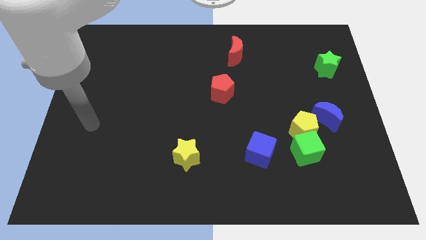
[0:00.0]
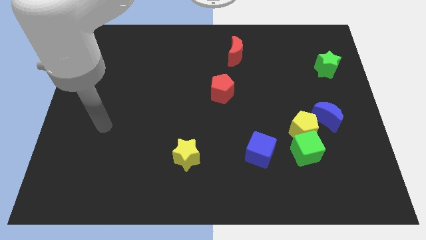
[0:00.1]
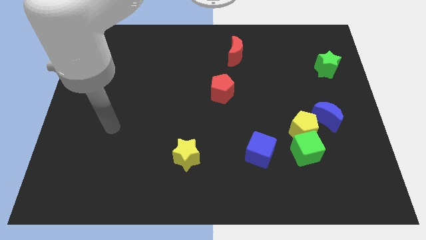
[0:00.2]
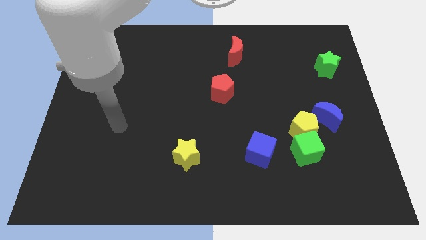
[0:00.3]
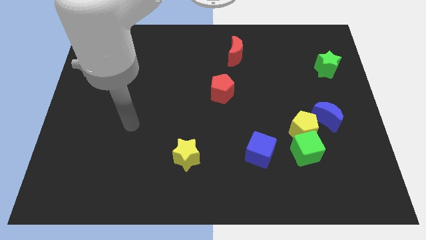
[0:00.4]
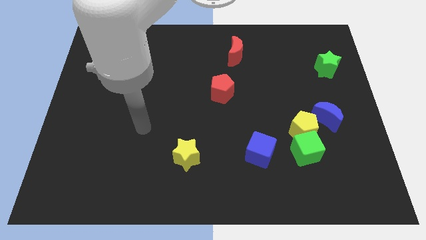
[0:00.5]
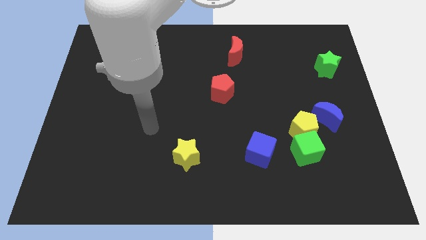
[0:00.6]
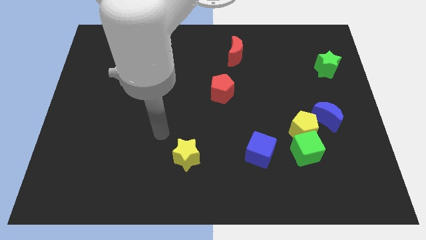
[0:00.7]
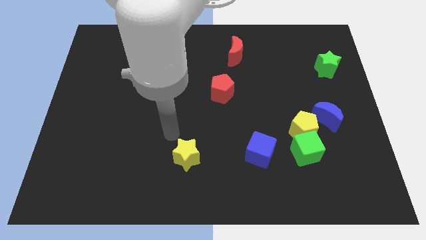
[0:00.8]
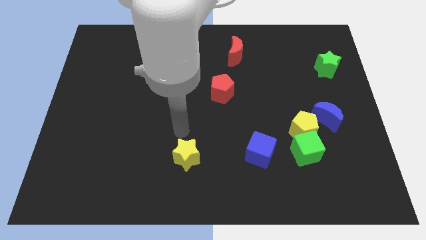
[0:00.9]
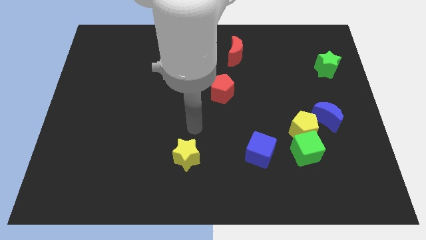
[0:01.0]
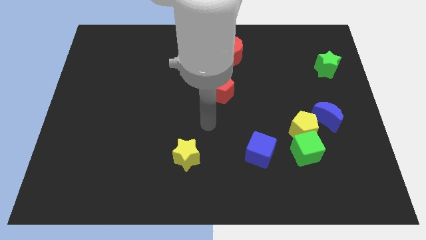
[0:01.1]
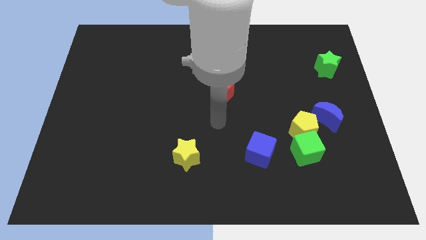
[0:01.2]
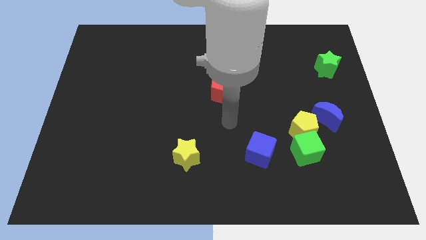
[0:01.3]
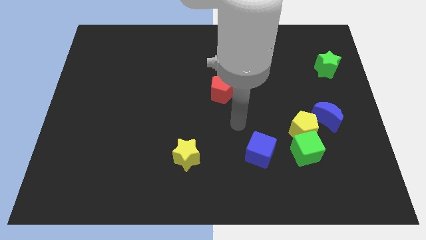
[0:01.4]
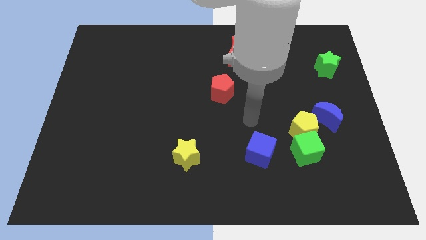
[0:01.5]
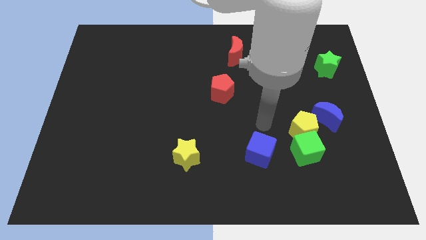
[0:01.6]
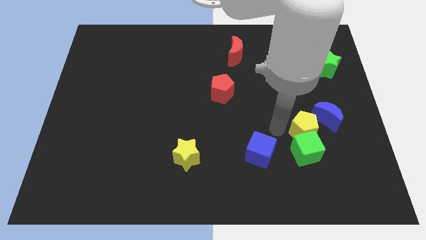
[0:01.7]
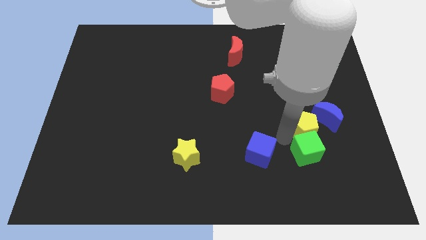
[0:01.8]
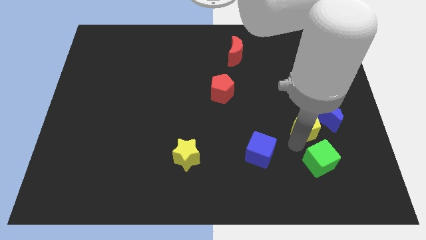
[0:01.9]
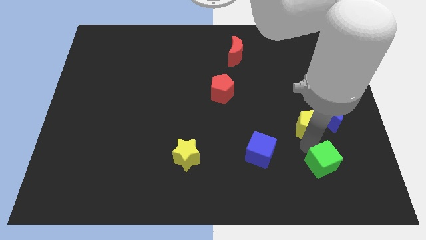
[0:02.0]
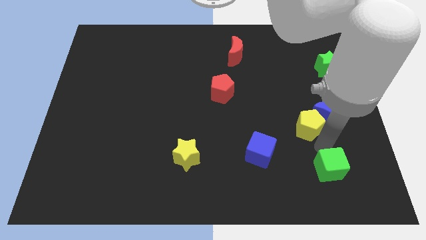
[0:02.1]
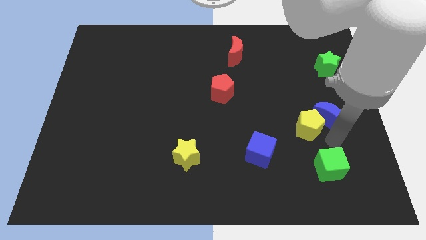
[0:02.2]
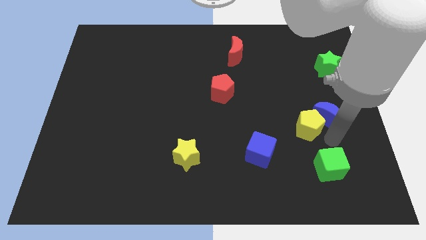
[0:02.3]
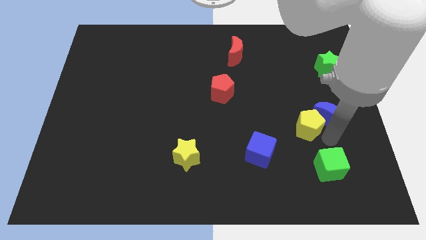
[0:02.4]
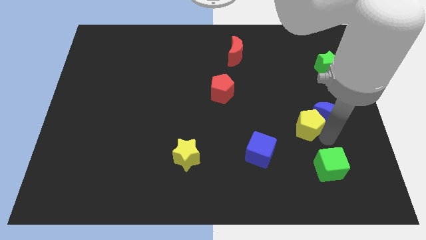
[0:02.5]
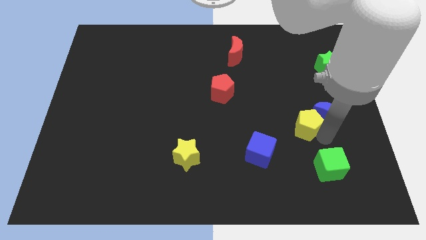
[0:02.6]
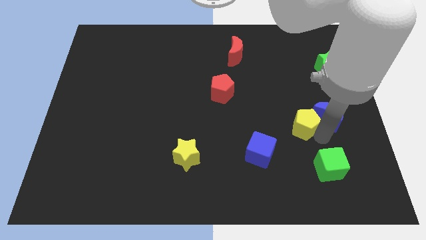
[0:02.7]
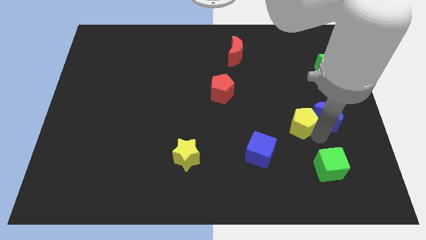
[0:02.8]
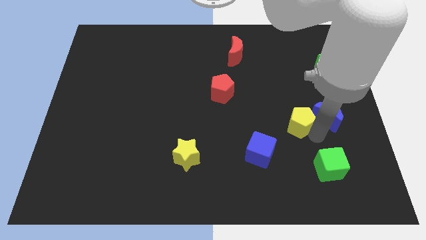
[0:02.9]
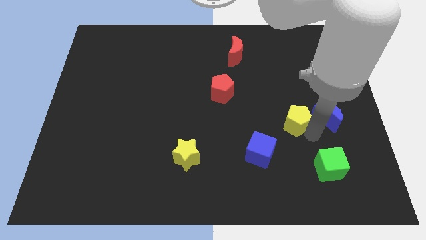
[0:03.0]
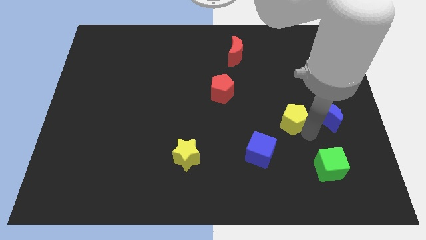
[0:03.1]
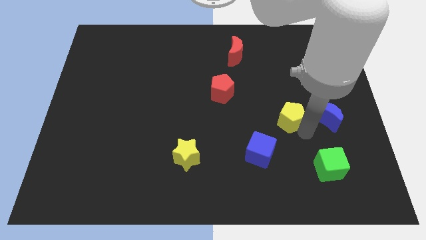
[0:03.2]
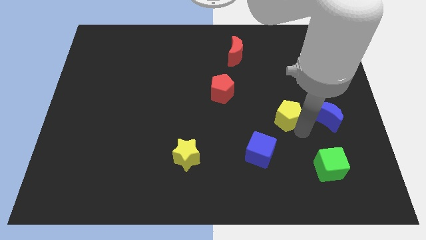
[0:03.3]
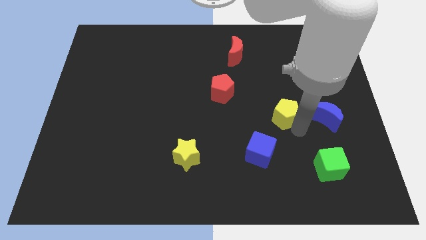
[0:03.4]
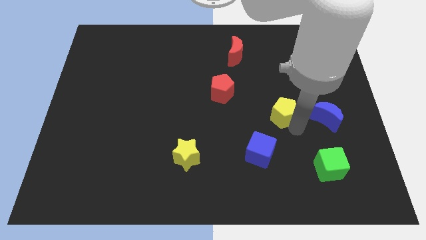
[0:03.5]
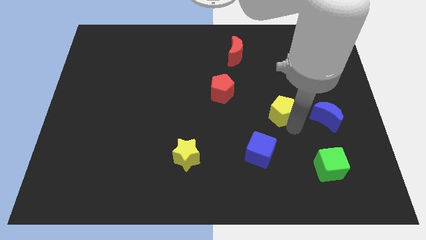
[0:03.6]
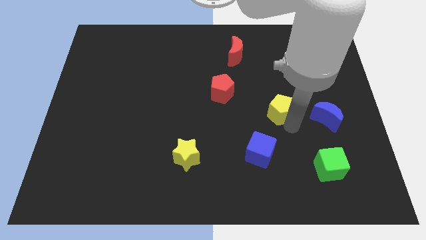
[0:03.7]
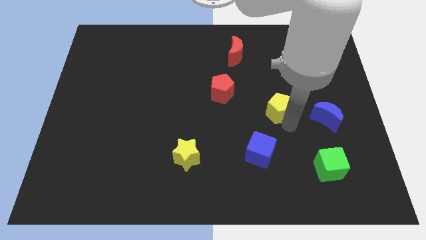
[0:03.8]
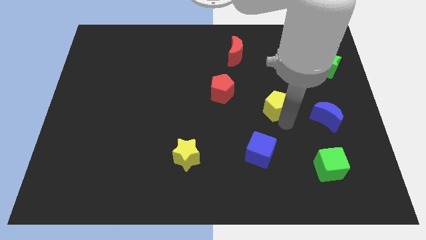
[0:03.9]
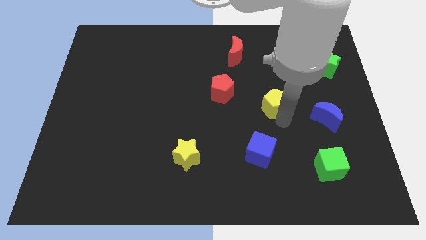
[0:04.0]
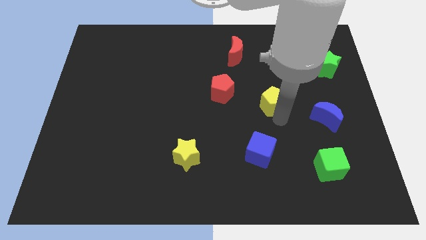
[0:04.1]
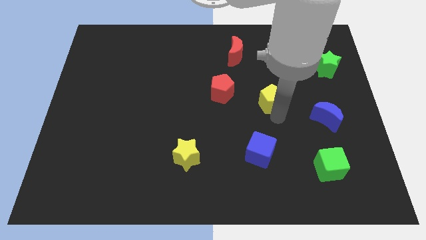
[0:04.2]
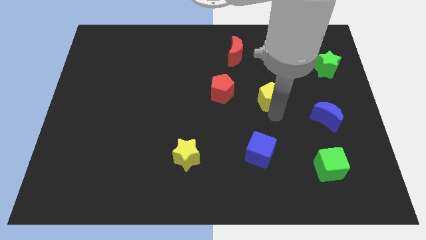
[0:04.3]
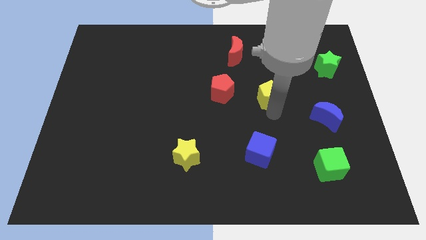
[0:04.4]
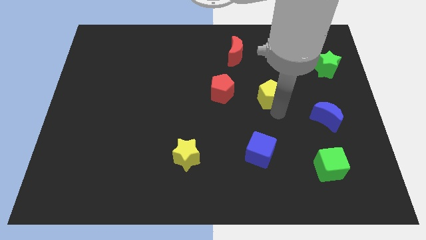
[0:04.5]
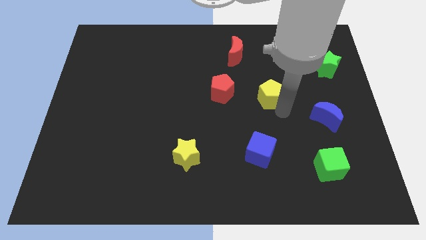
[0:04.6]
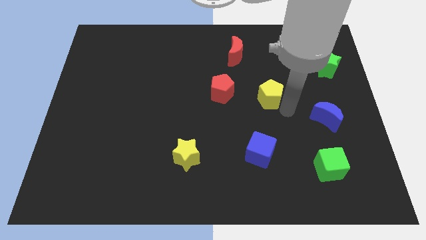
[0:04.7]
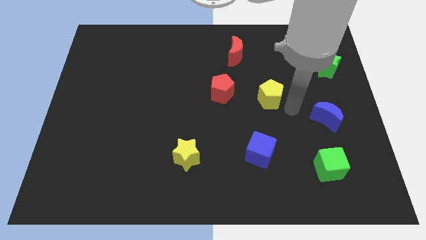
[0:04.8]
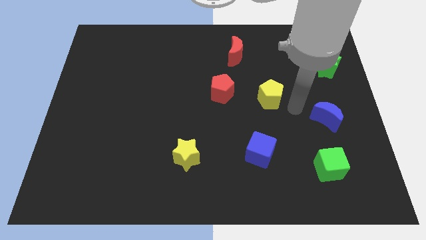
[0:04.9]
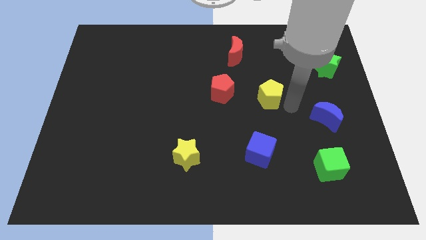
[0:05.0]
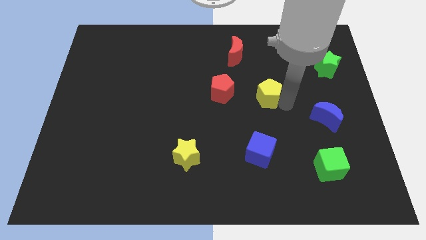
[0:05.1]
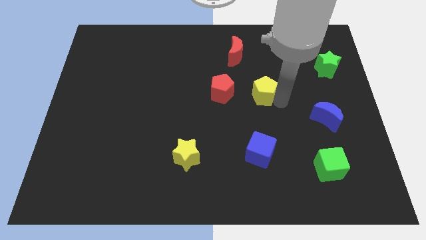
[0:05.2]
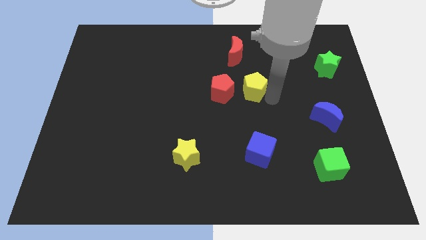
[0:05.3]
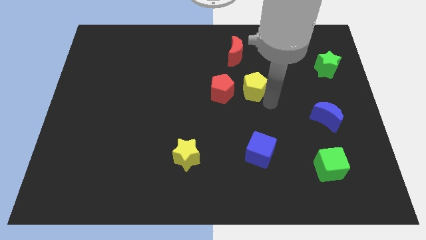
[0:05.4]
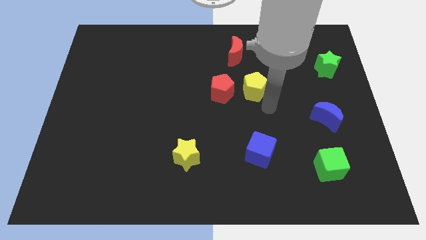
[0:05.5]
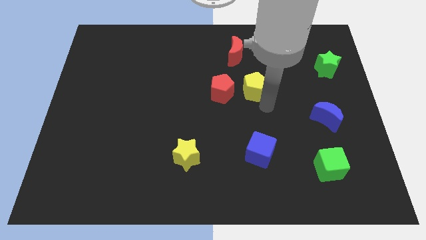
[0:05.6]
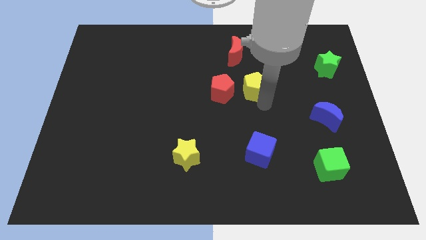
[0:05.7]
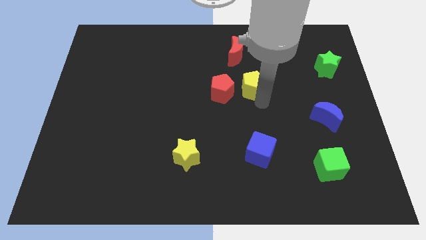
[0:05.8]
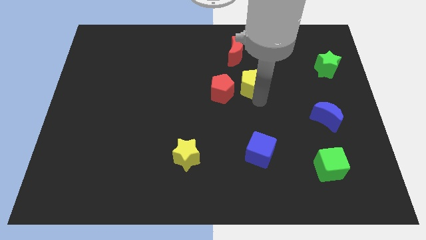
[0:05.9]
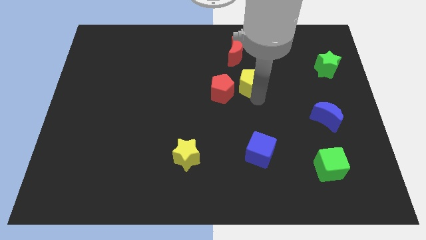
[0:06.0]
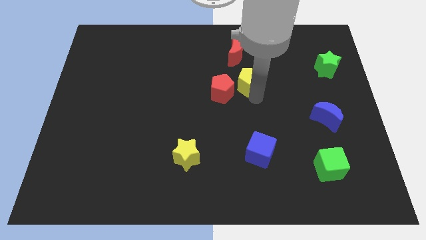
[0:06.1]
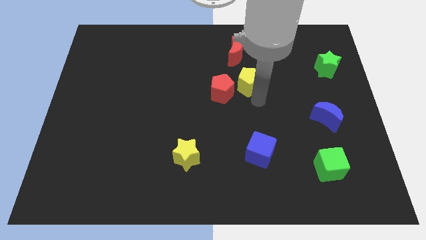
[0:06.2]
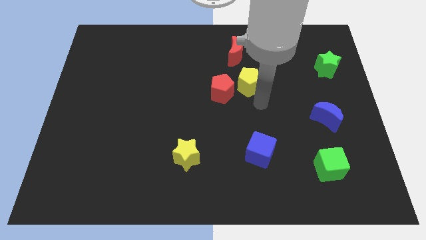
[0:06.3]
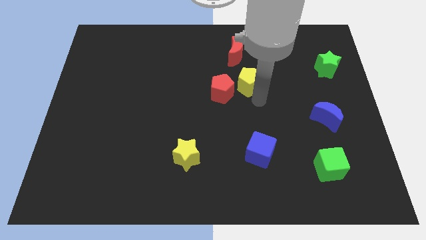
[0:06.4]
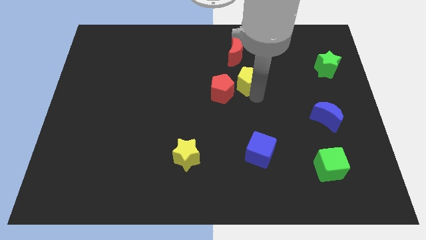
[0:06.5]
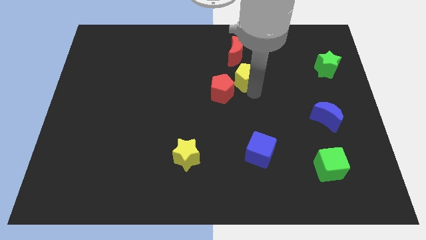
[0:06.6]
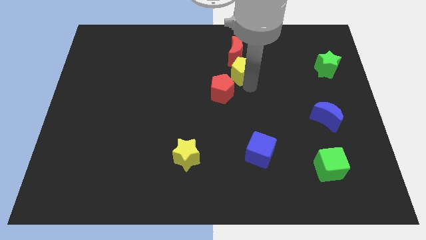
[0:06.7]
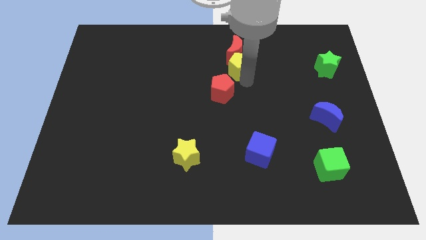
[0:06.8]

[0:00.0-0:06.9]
move the yellow pentagon to the red moon

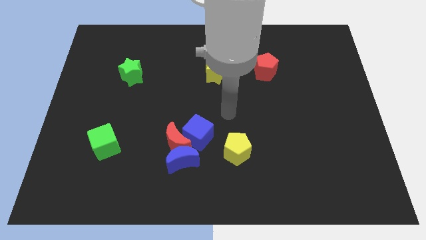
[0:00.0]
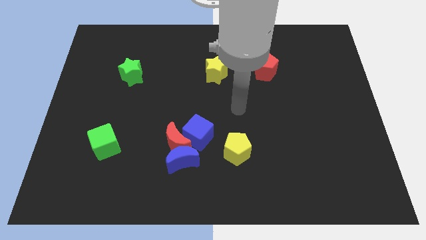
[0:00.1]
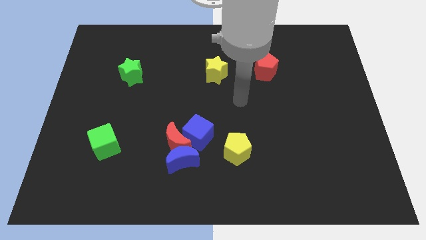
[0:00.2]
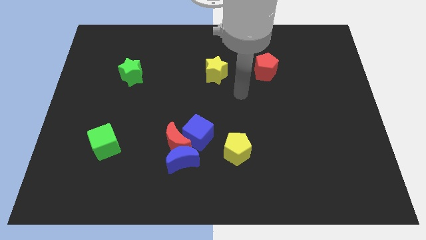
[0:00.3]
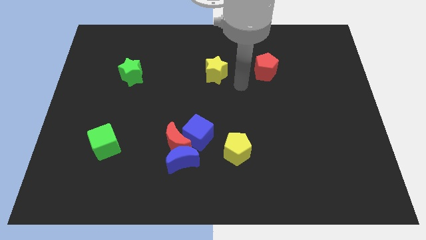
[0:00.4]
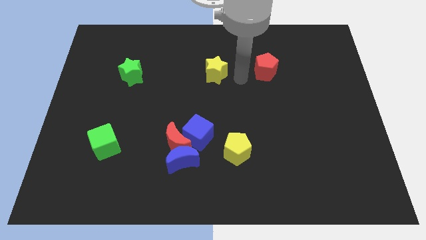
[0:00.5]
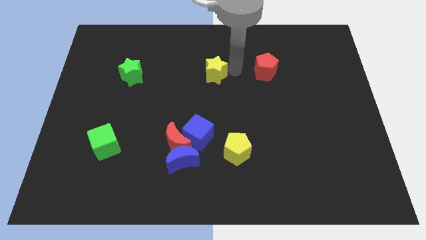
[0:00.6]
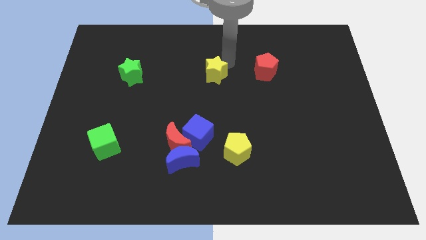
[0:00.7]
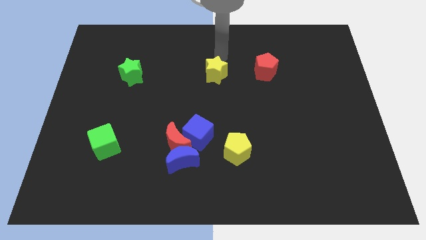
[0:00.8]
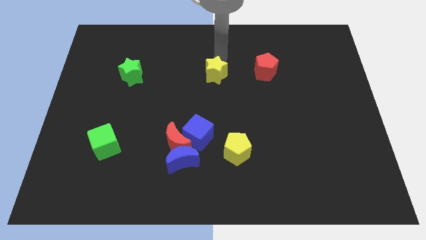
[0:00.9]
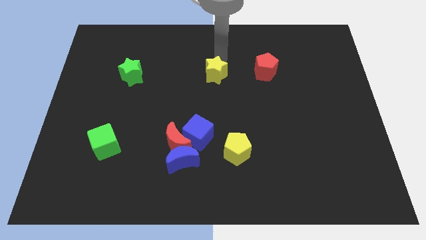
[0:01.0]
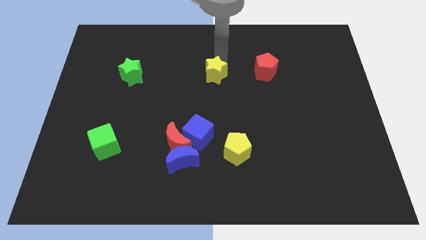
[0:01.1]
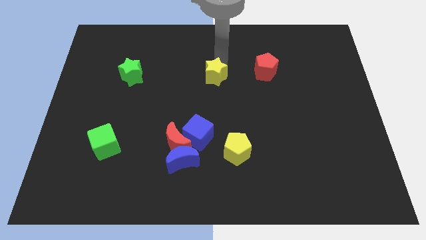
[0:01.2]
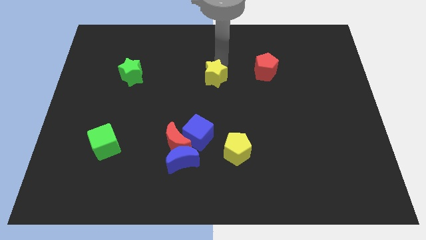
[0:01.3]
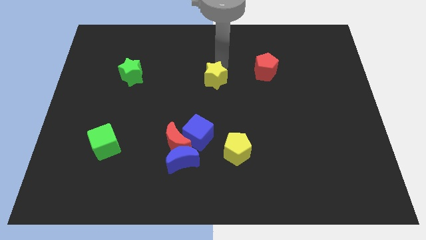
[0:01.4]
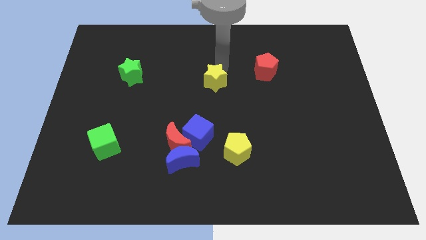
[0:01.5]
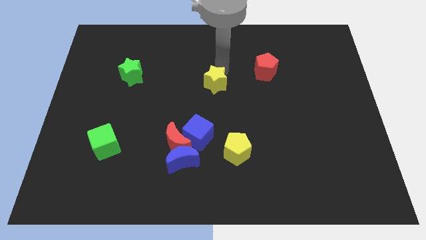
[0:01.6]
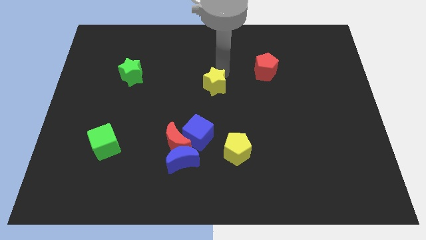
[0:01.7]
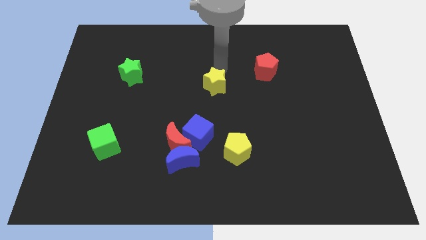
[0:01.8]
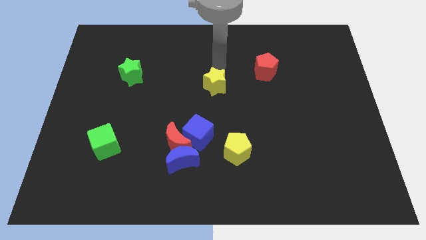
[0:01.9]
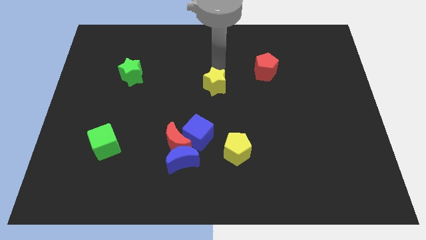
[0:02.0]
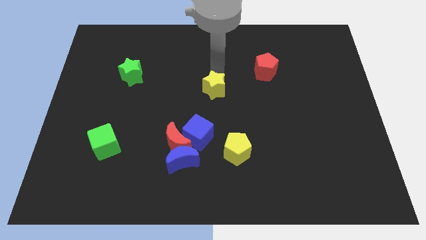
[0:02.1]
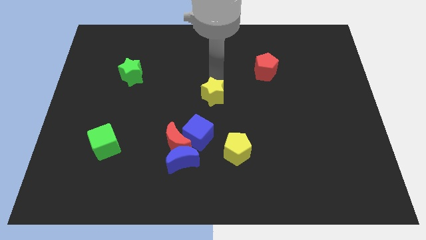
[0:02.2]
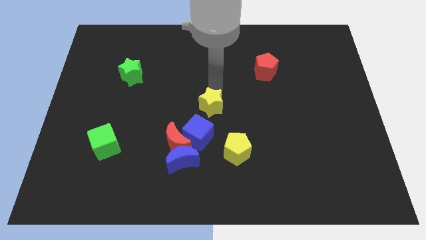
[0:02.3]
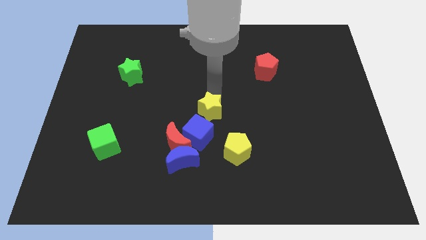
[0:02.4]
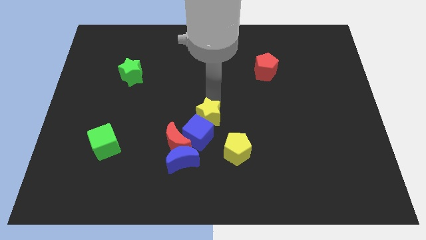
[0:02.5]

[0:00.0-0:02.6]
slide the yellow star next to the blue cube
